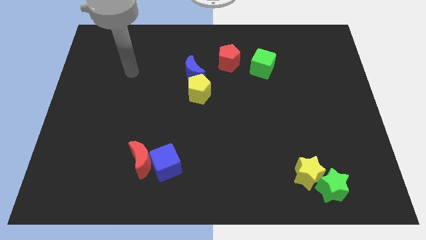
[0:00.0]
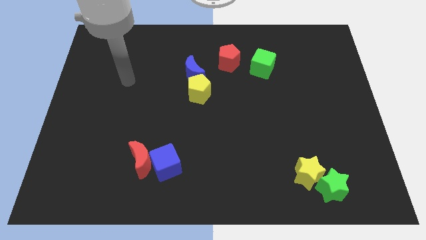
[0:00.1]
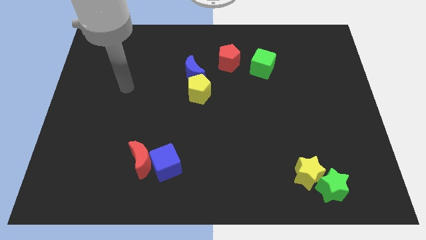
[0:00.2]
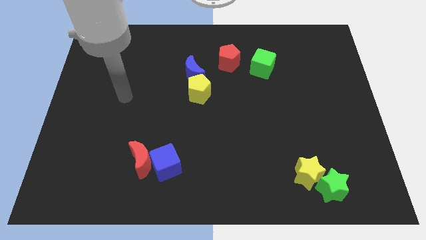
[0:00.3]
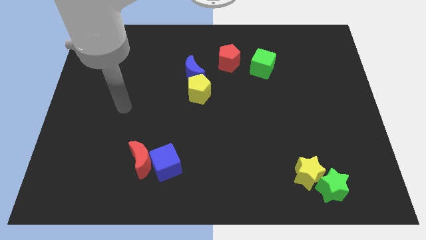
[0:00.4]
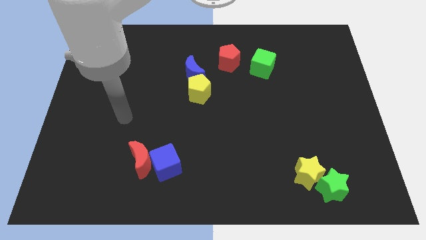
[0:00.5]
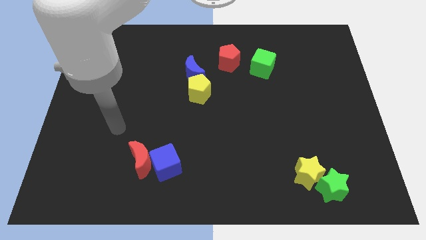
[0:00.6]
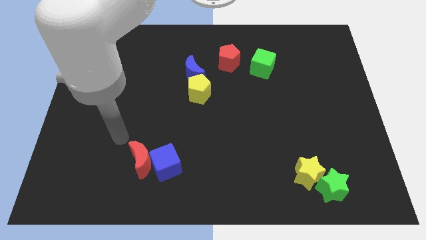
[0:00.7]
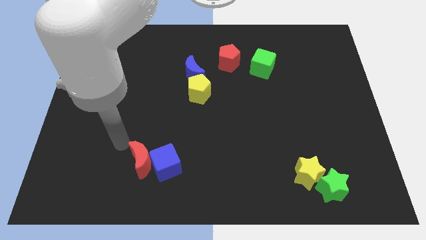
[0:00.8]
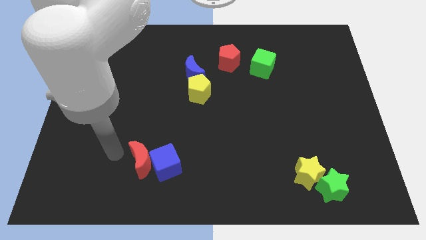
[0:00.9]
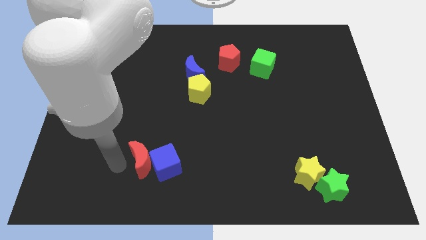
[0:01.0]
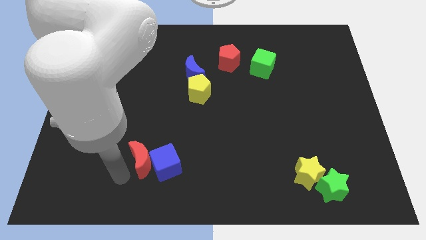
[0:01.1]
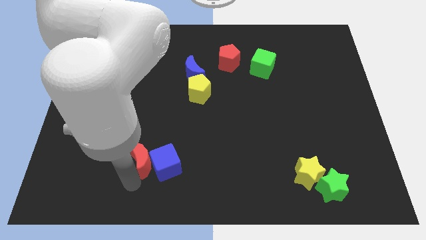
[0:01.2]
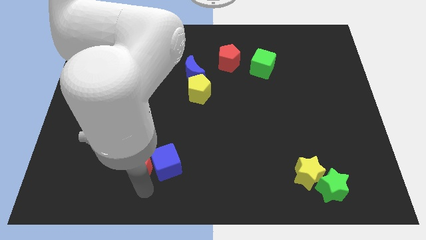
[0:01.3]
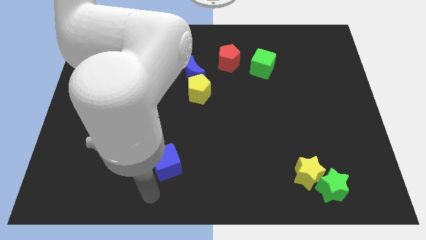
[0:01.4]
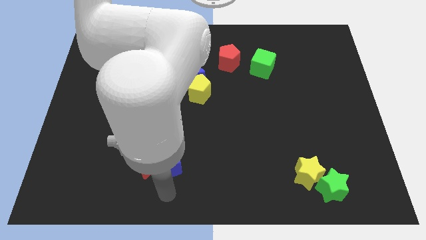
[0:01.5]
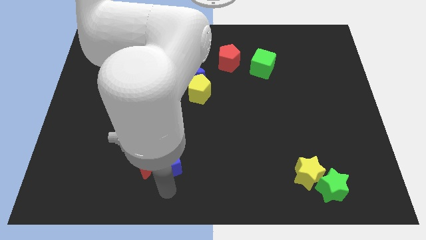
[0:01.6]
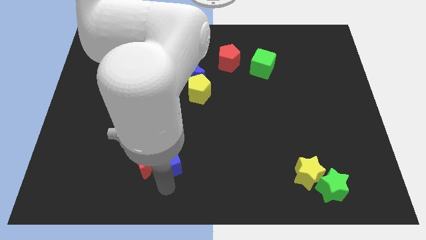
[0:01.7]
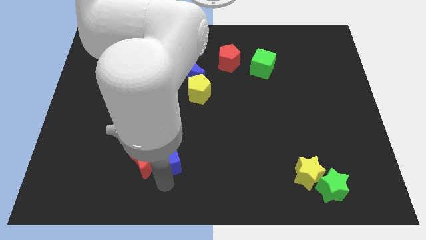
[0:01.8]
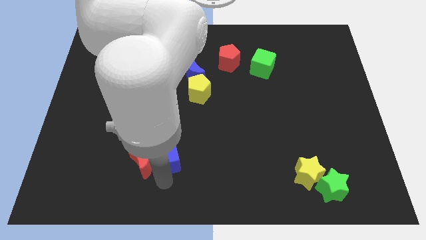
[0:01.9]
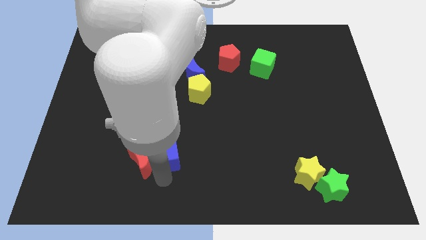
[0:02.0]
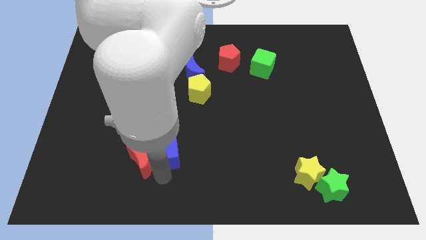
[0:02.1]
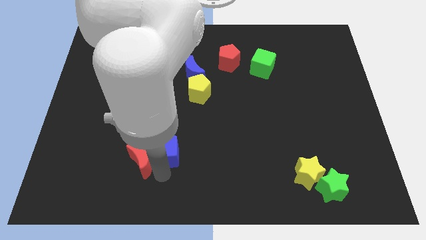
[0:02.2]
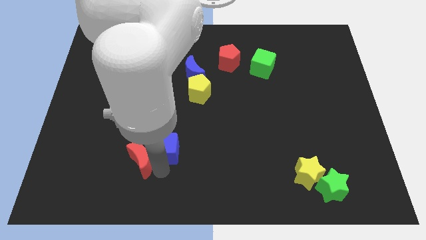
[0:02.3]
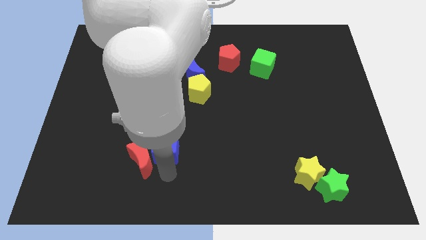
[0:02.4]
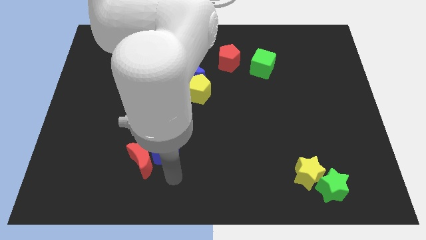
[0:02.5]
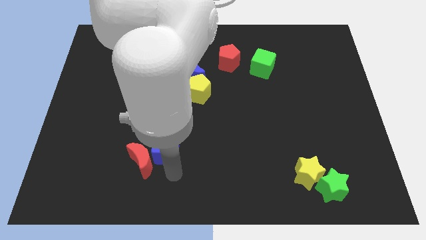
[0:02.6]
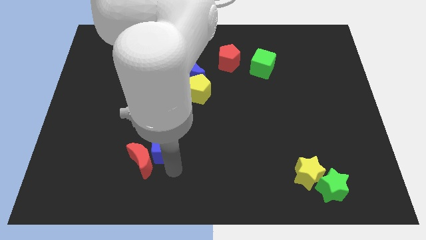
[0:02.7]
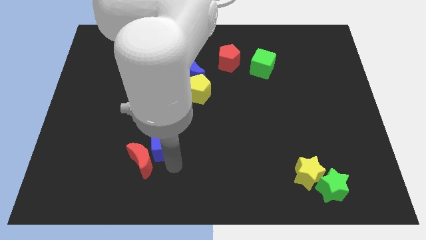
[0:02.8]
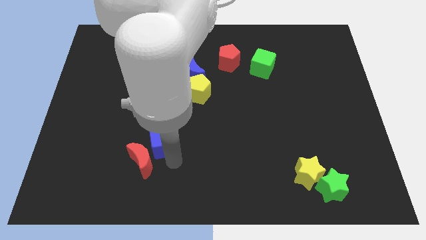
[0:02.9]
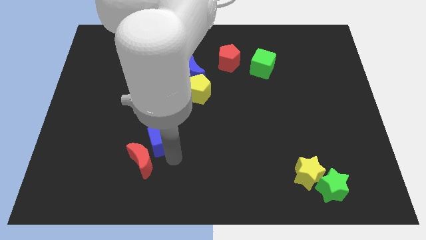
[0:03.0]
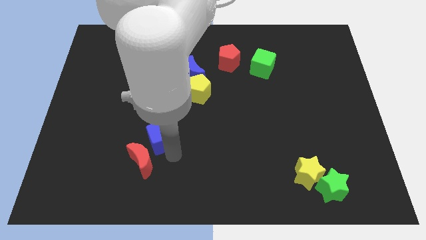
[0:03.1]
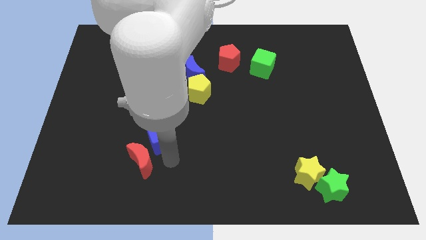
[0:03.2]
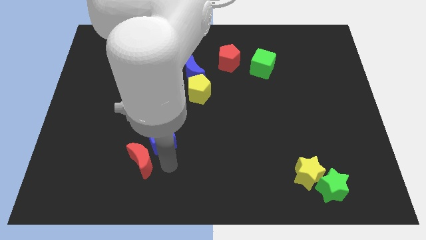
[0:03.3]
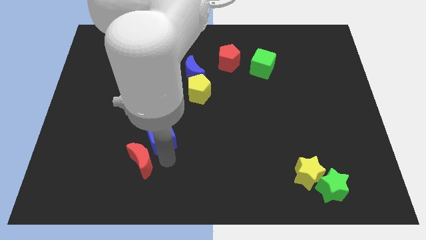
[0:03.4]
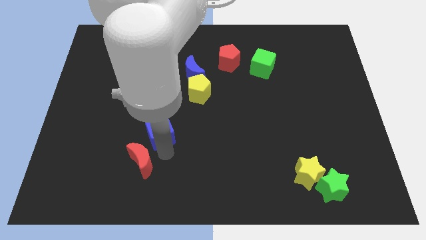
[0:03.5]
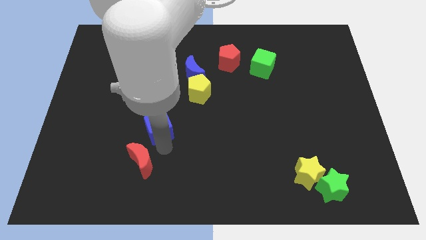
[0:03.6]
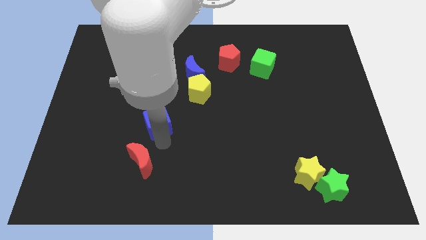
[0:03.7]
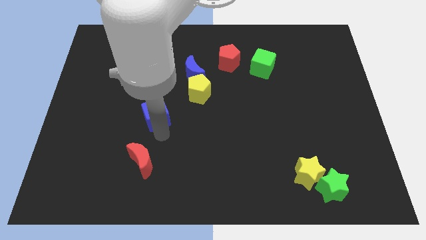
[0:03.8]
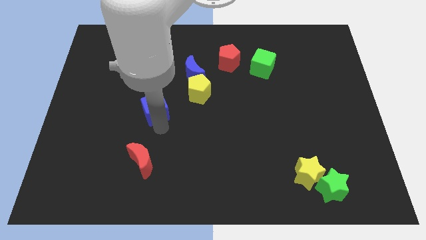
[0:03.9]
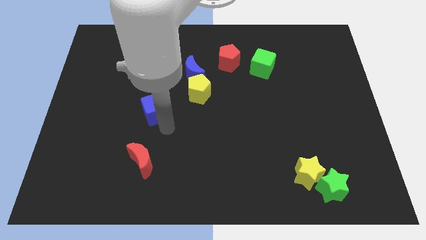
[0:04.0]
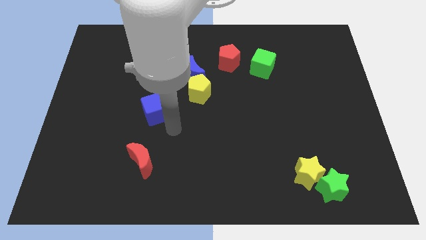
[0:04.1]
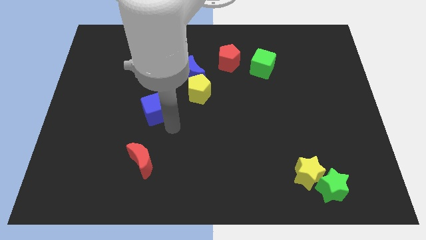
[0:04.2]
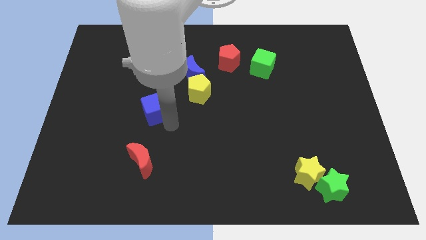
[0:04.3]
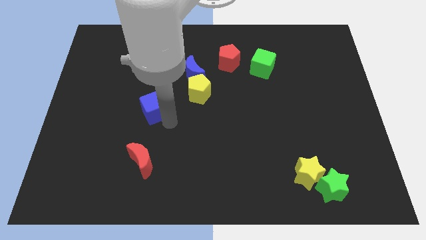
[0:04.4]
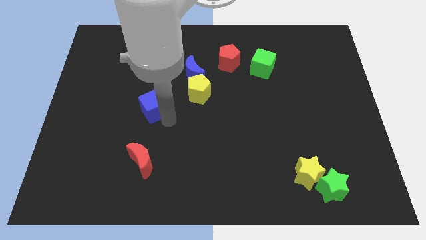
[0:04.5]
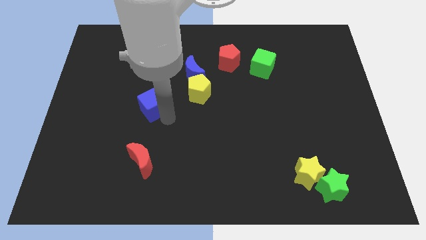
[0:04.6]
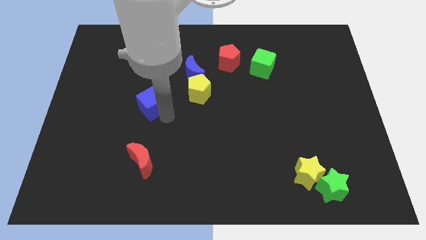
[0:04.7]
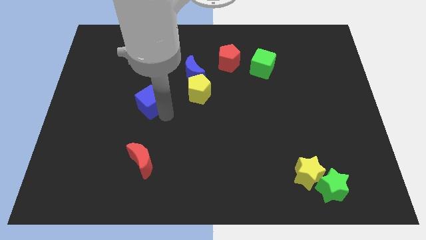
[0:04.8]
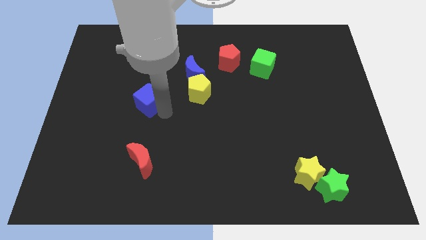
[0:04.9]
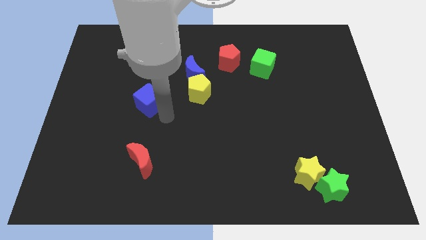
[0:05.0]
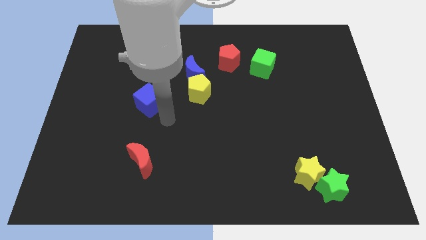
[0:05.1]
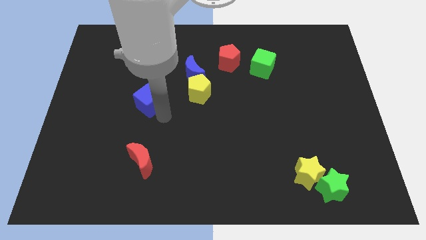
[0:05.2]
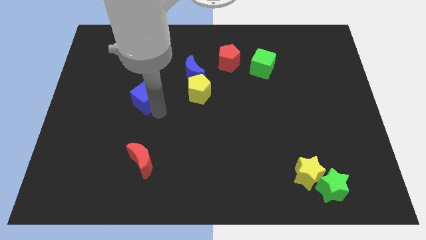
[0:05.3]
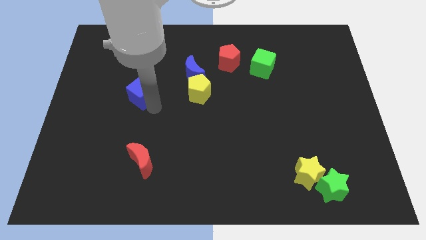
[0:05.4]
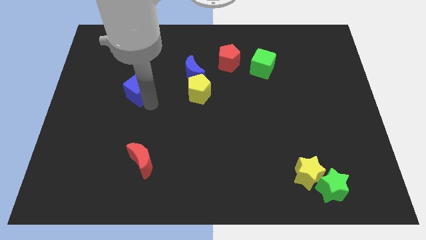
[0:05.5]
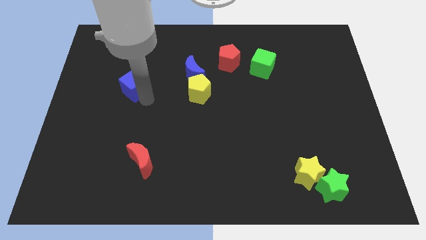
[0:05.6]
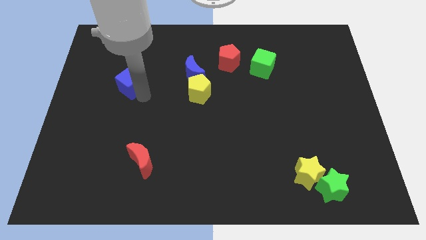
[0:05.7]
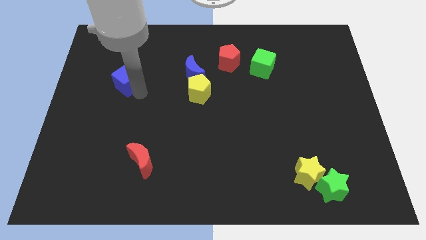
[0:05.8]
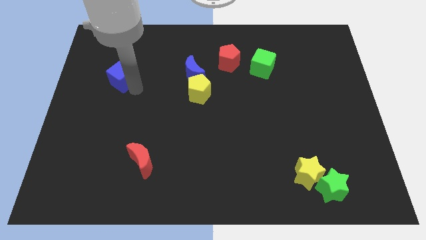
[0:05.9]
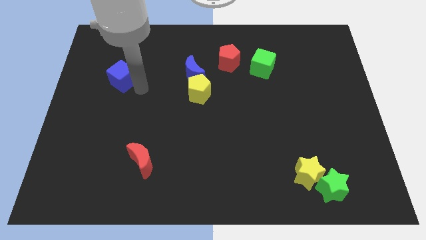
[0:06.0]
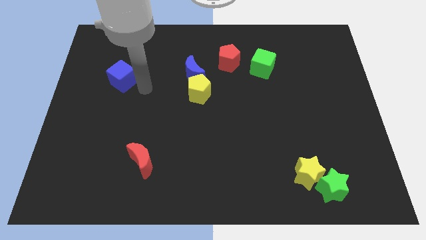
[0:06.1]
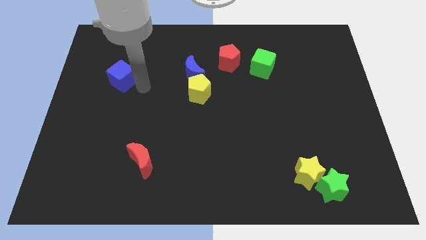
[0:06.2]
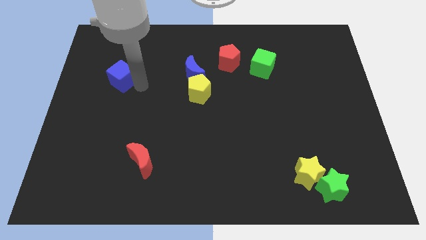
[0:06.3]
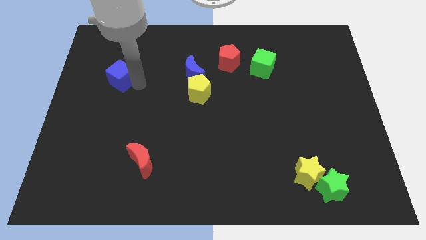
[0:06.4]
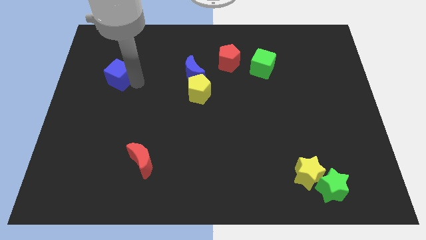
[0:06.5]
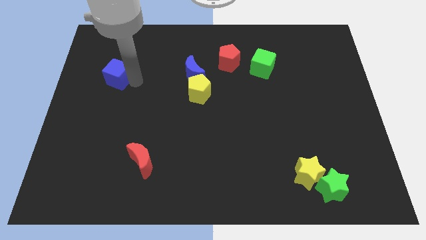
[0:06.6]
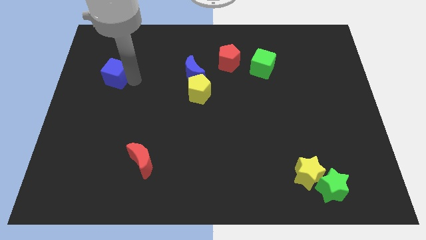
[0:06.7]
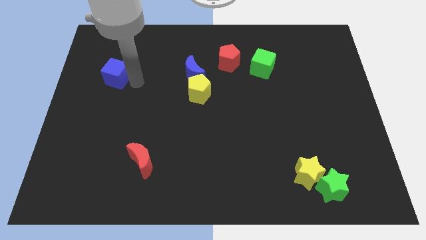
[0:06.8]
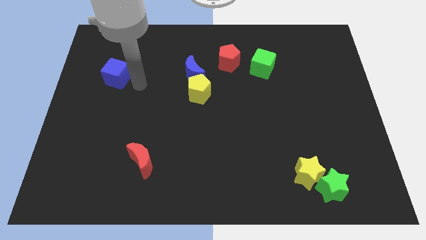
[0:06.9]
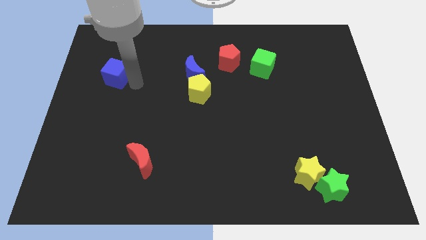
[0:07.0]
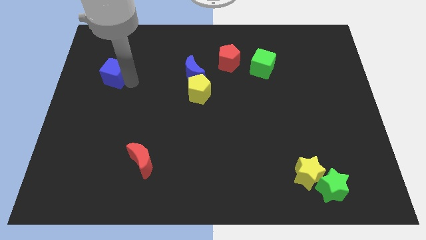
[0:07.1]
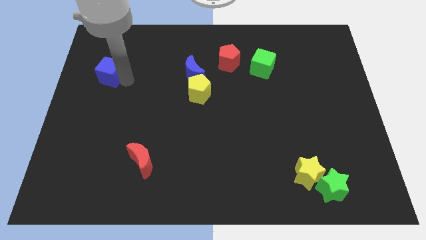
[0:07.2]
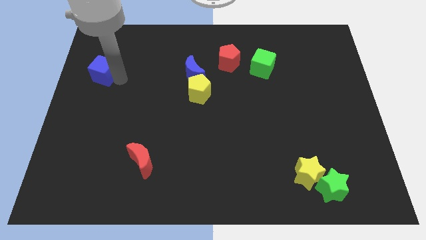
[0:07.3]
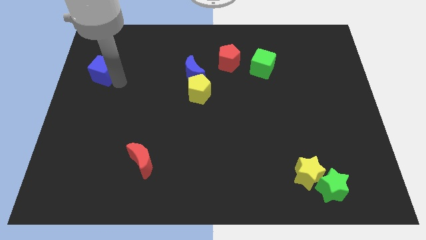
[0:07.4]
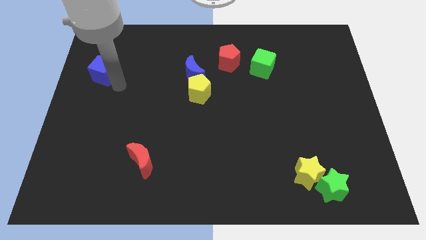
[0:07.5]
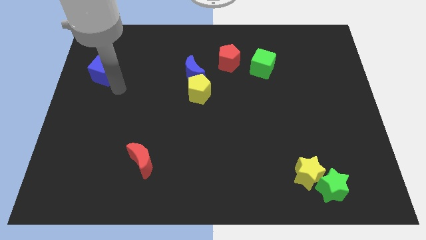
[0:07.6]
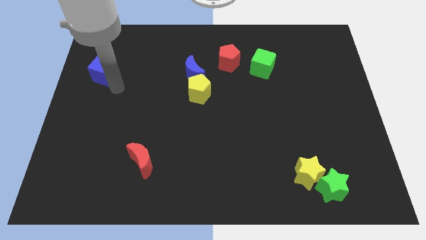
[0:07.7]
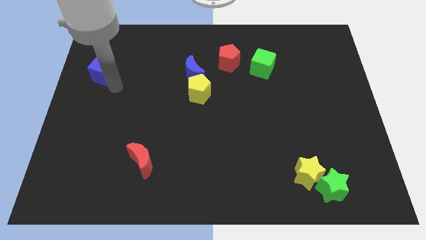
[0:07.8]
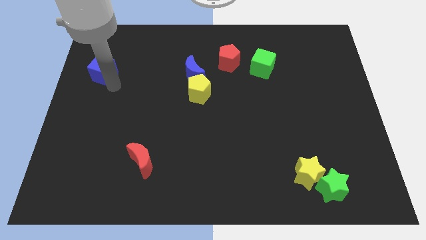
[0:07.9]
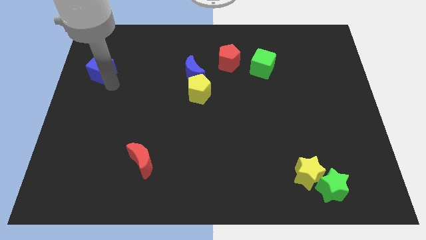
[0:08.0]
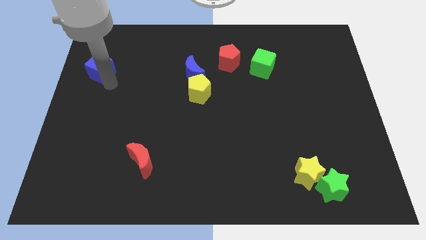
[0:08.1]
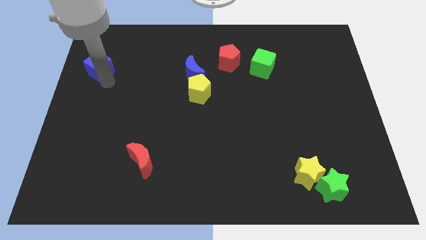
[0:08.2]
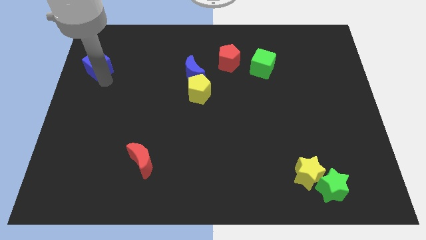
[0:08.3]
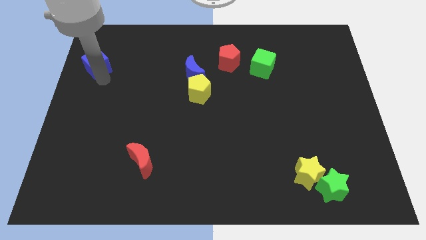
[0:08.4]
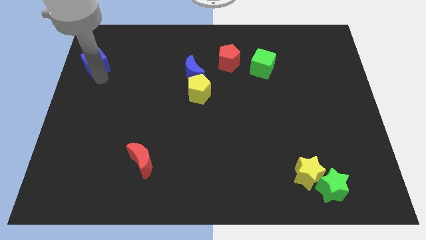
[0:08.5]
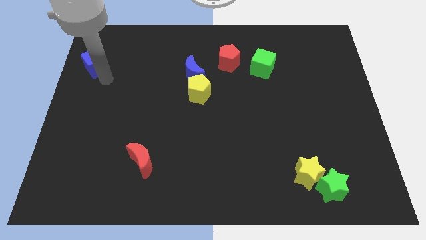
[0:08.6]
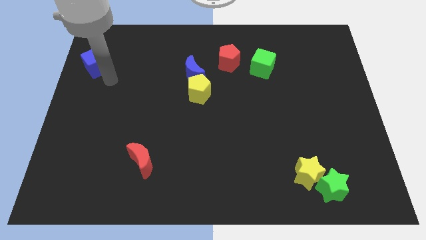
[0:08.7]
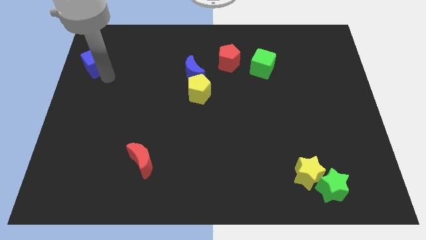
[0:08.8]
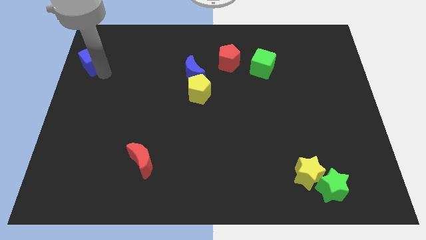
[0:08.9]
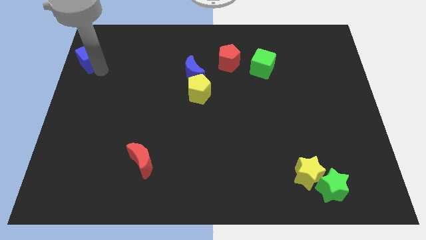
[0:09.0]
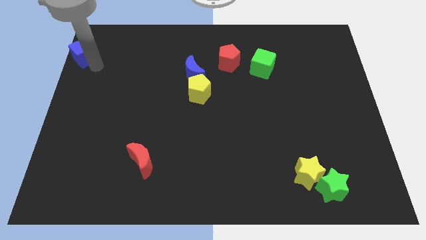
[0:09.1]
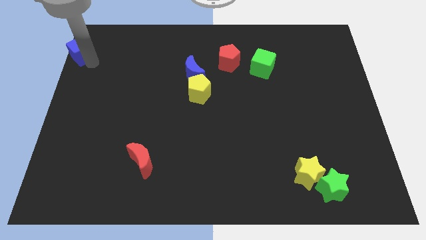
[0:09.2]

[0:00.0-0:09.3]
push the blue cube to the top left of the board
